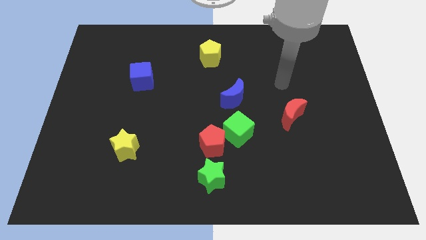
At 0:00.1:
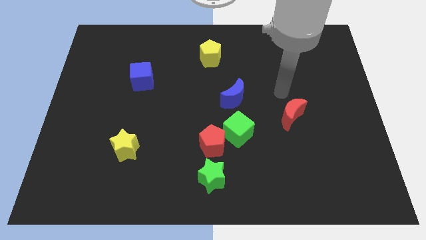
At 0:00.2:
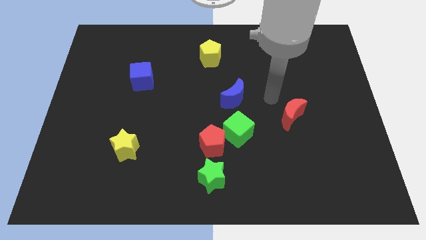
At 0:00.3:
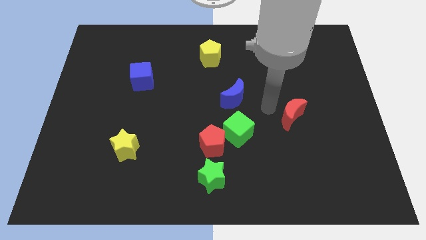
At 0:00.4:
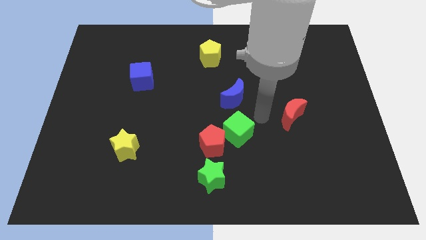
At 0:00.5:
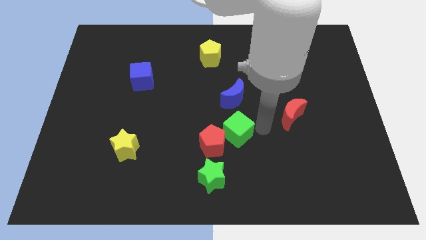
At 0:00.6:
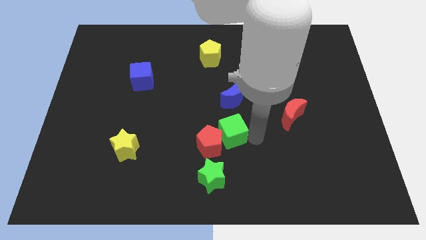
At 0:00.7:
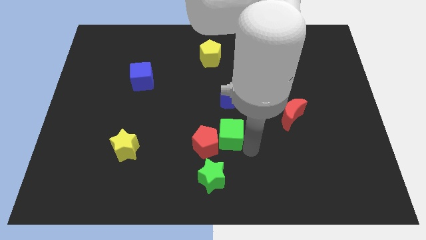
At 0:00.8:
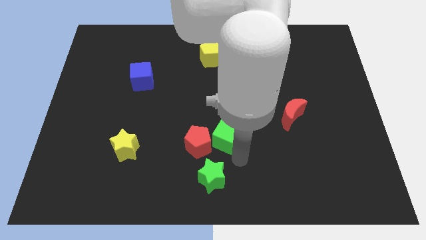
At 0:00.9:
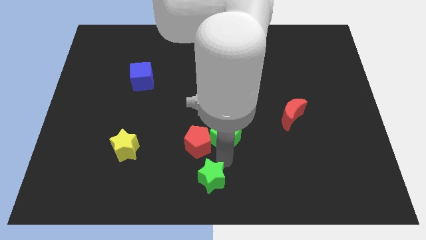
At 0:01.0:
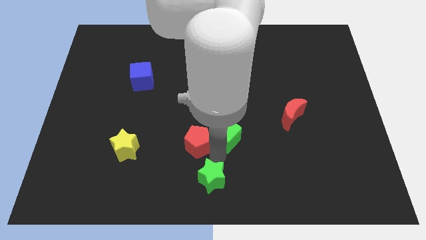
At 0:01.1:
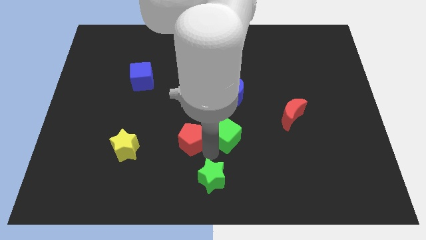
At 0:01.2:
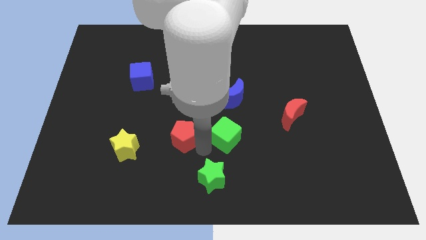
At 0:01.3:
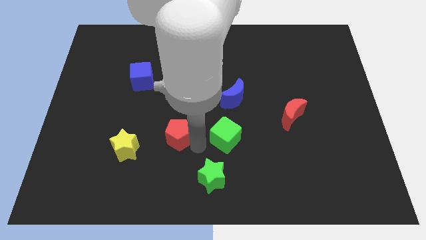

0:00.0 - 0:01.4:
move the red pentagon away from the green cube and green star

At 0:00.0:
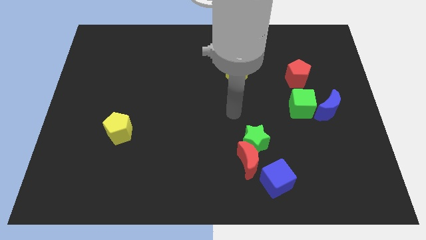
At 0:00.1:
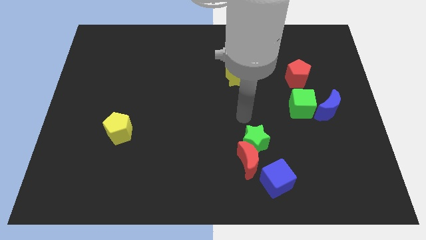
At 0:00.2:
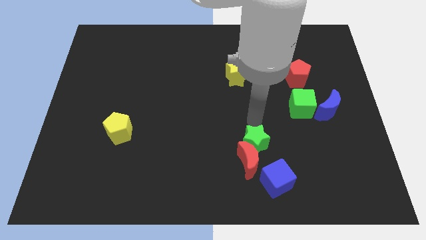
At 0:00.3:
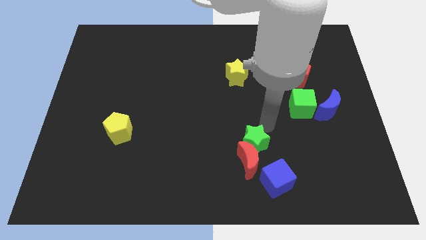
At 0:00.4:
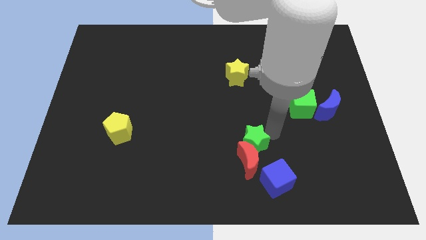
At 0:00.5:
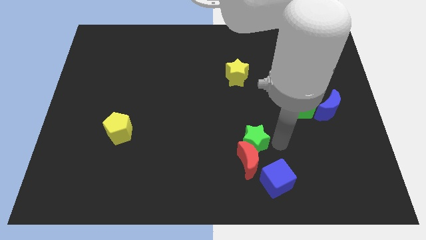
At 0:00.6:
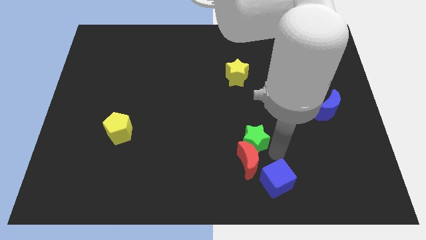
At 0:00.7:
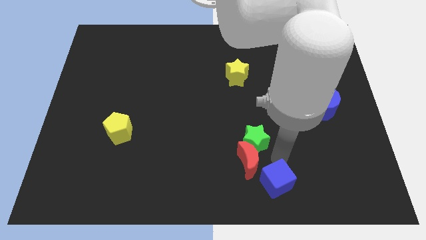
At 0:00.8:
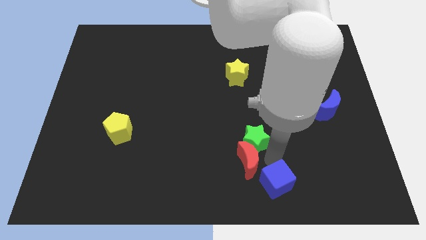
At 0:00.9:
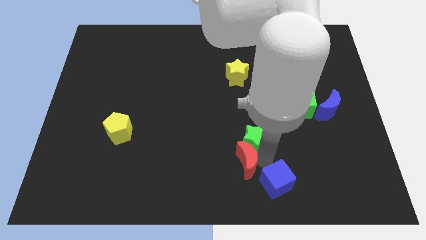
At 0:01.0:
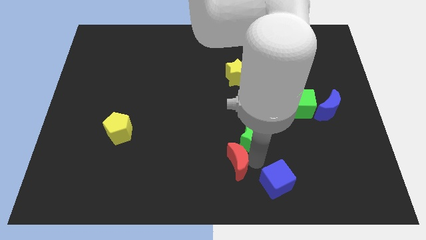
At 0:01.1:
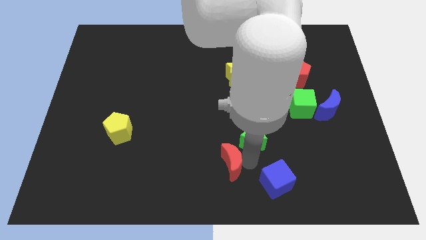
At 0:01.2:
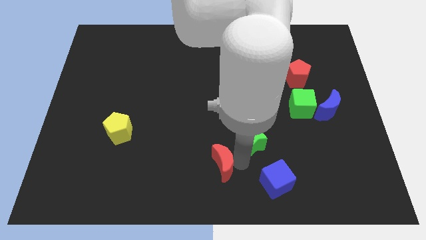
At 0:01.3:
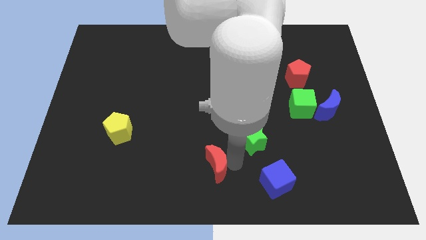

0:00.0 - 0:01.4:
move the red moon away from the green star and blue cube

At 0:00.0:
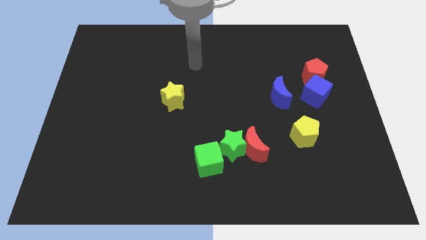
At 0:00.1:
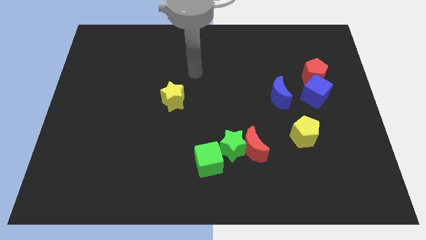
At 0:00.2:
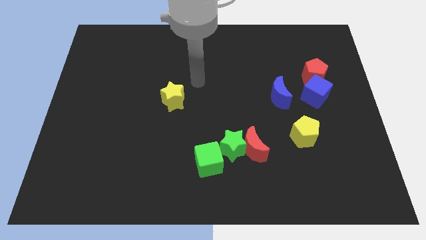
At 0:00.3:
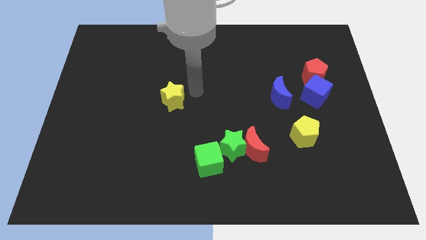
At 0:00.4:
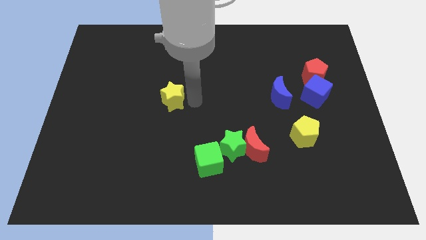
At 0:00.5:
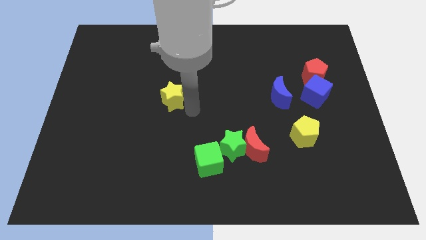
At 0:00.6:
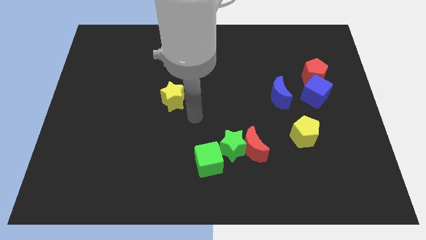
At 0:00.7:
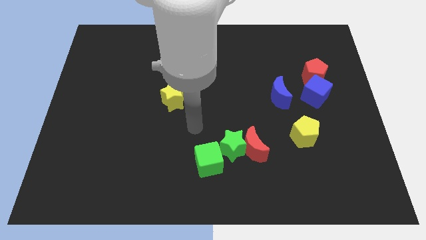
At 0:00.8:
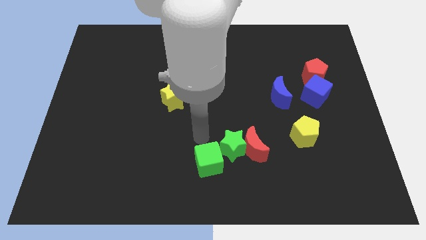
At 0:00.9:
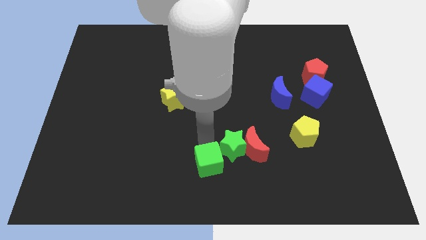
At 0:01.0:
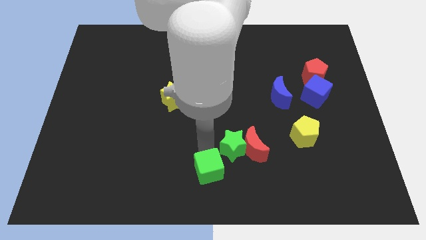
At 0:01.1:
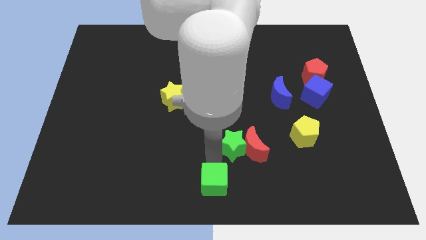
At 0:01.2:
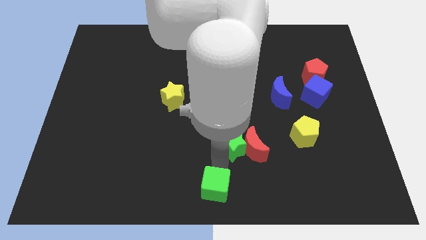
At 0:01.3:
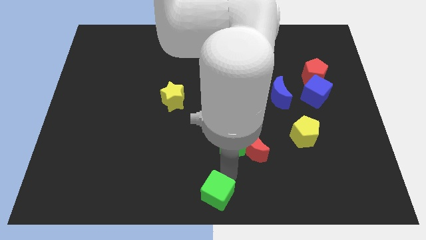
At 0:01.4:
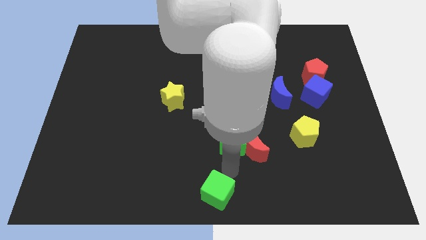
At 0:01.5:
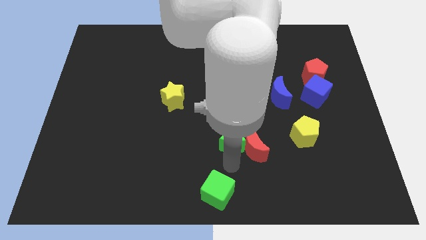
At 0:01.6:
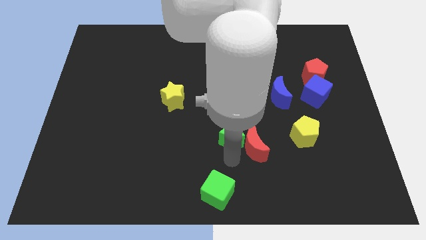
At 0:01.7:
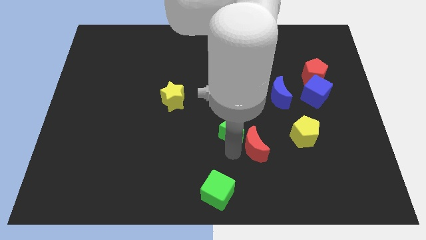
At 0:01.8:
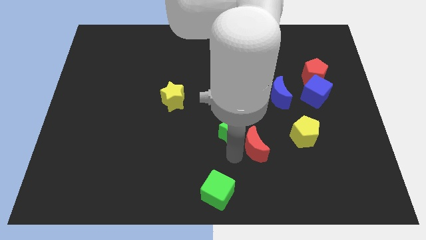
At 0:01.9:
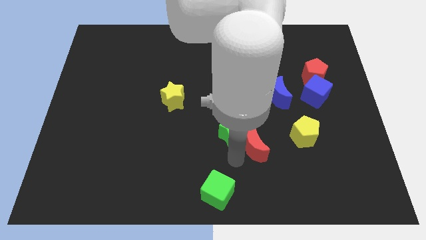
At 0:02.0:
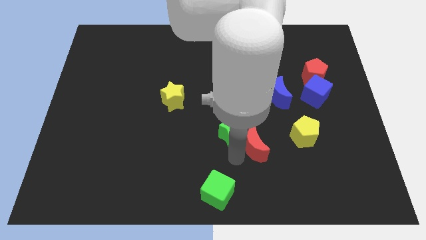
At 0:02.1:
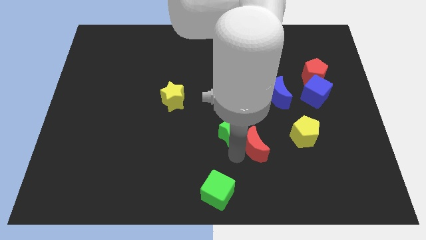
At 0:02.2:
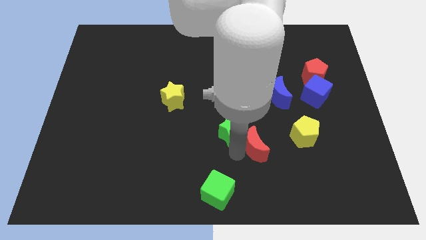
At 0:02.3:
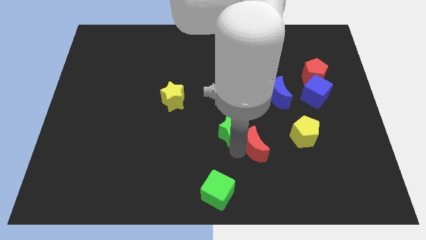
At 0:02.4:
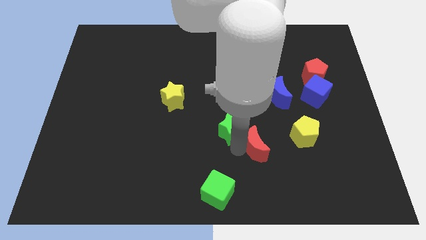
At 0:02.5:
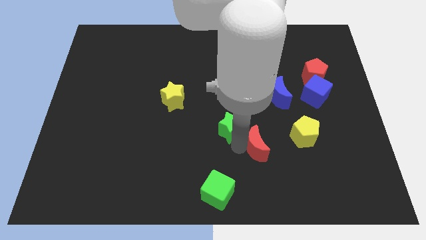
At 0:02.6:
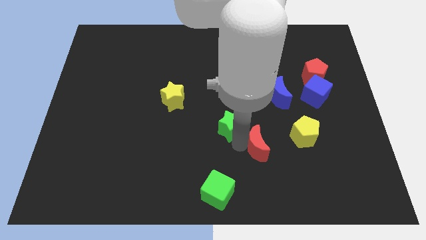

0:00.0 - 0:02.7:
separate the green star from the red moon and green cube

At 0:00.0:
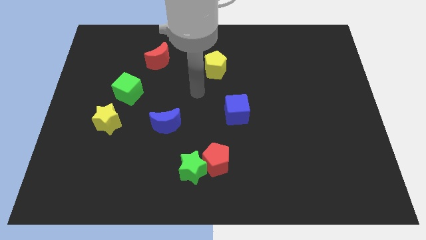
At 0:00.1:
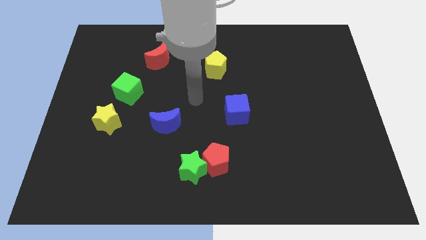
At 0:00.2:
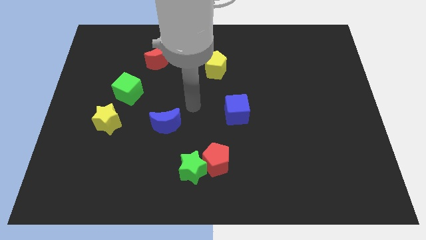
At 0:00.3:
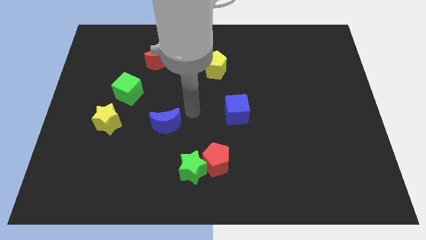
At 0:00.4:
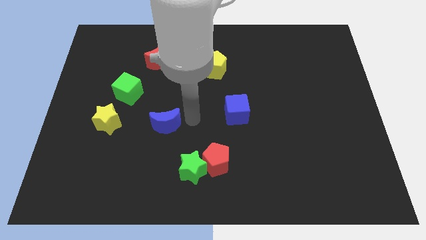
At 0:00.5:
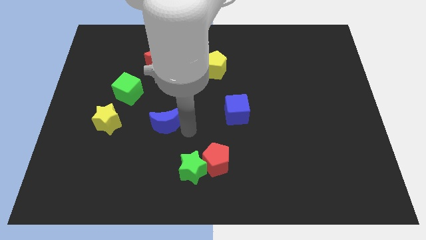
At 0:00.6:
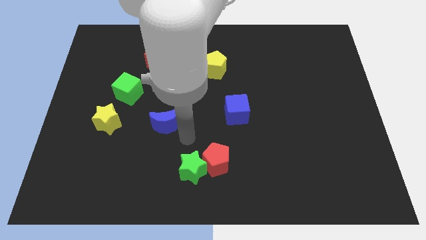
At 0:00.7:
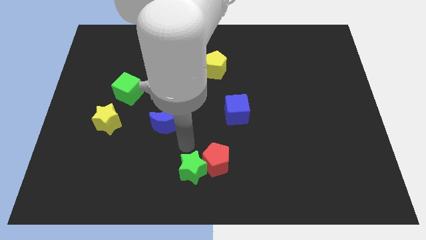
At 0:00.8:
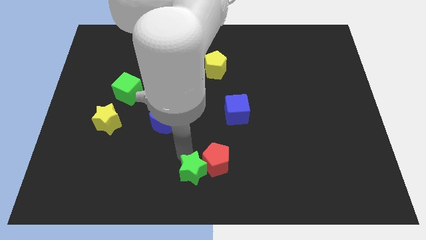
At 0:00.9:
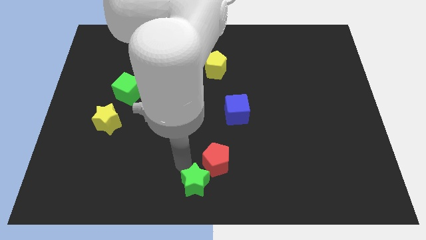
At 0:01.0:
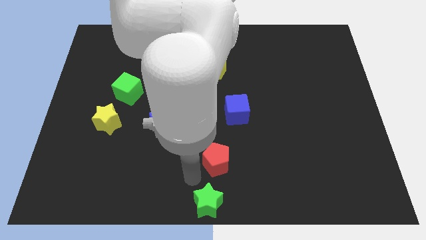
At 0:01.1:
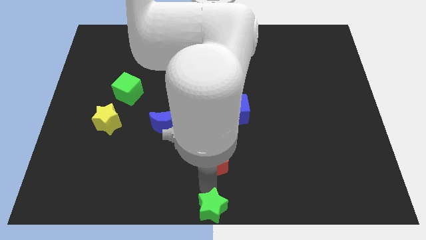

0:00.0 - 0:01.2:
separate the red pentagon from the green star

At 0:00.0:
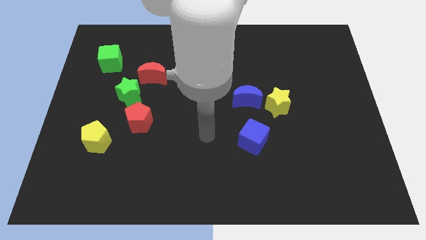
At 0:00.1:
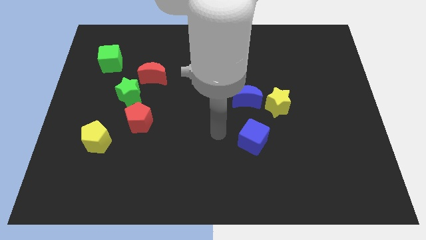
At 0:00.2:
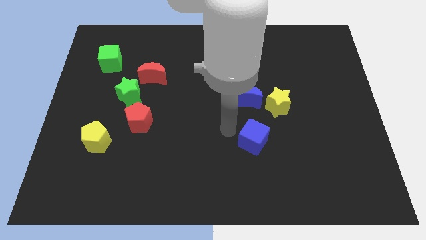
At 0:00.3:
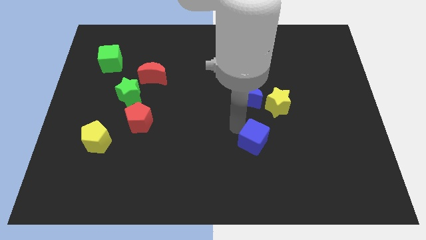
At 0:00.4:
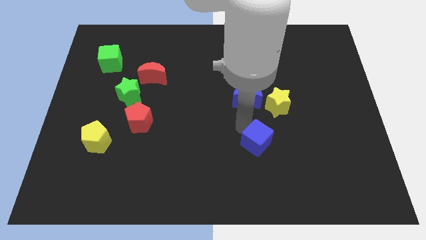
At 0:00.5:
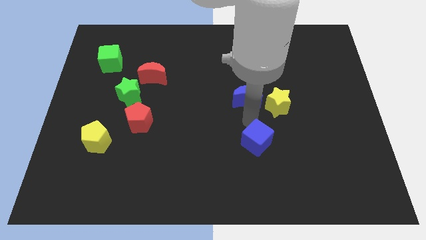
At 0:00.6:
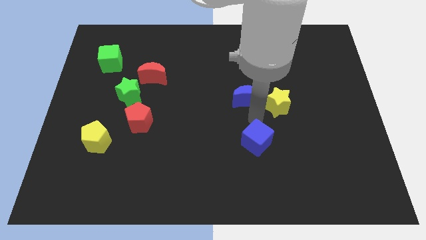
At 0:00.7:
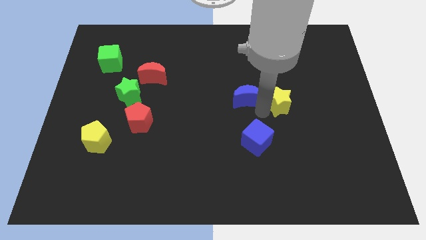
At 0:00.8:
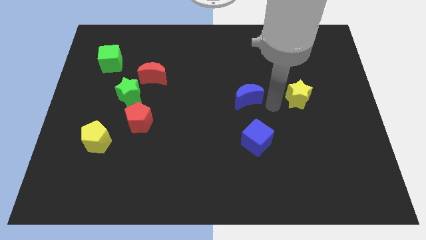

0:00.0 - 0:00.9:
move the blue moon away from the yellow star

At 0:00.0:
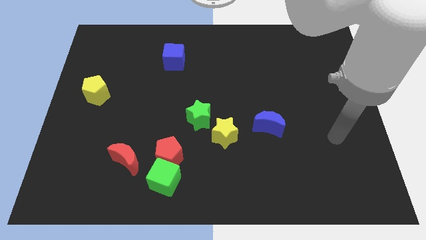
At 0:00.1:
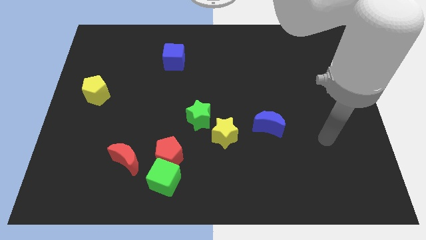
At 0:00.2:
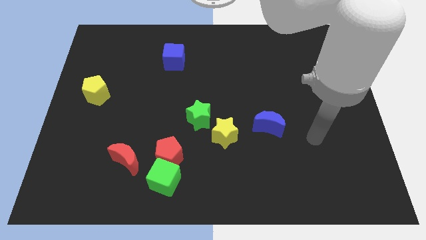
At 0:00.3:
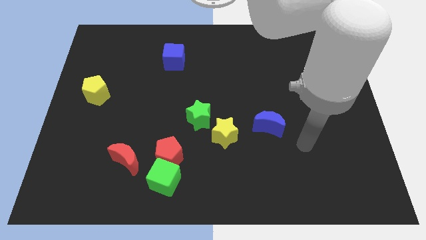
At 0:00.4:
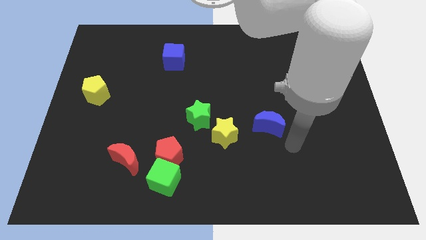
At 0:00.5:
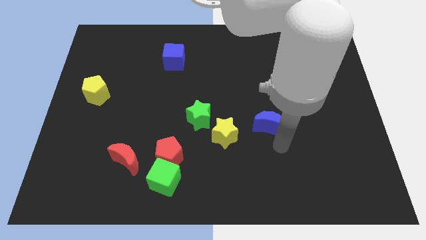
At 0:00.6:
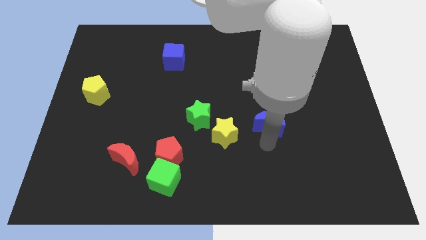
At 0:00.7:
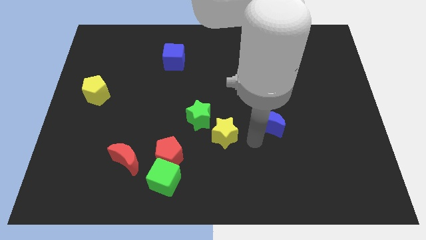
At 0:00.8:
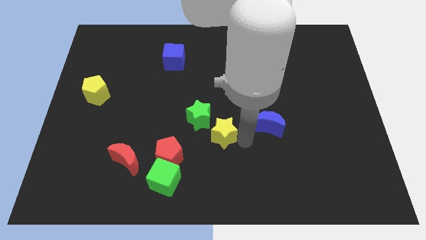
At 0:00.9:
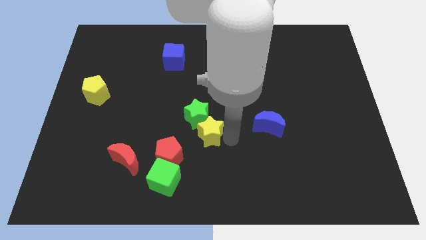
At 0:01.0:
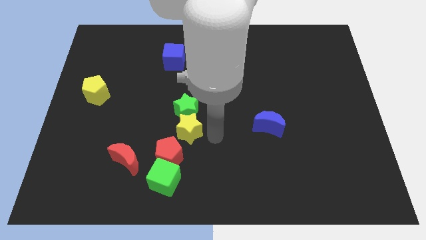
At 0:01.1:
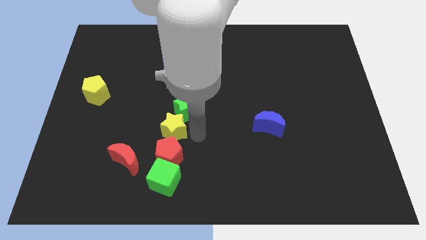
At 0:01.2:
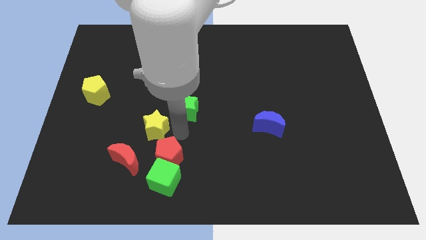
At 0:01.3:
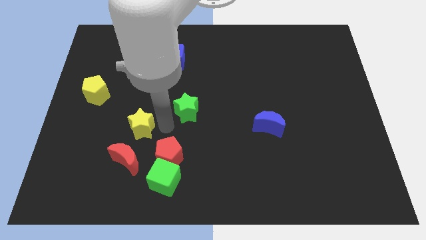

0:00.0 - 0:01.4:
separate the green star from the yellow star

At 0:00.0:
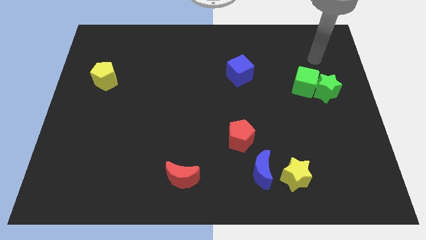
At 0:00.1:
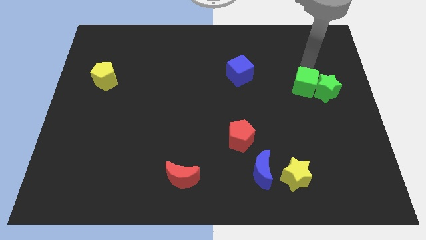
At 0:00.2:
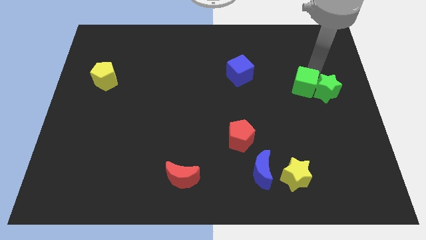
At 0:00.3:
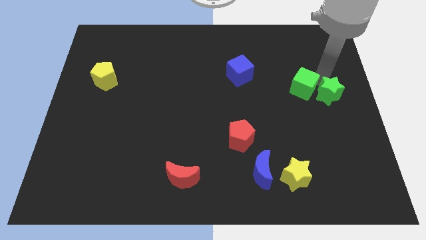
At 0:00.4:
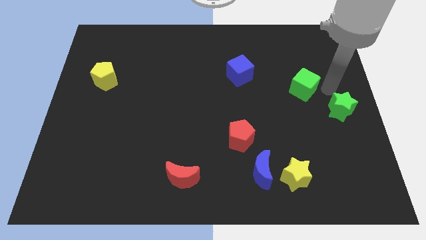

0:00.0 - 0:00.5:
move the green cube away from the green star
